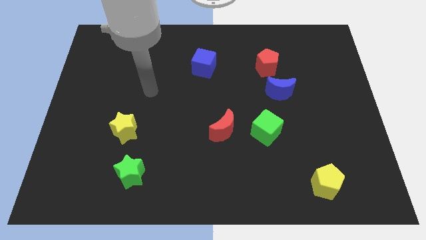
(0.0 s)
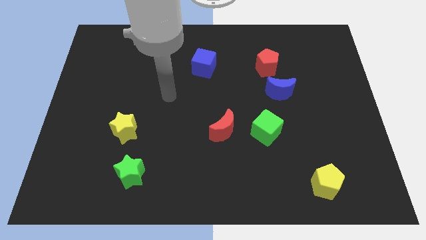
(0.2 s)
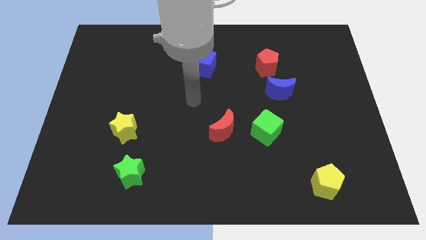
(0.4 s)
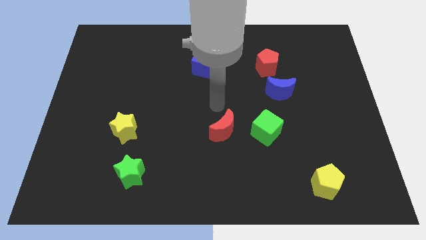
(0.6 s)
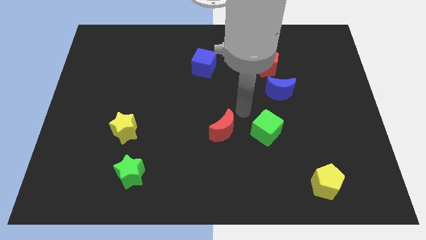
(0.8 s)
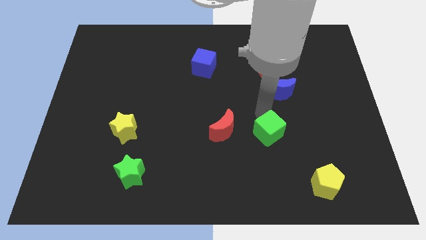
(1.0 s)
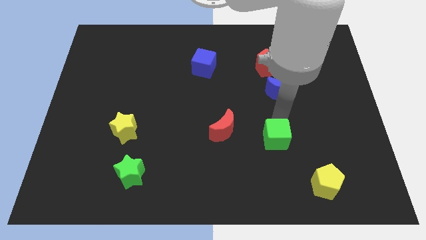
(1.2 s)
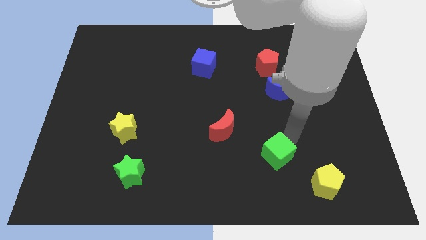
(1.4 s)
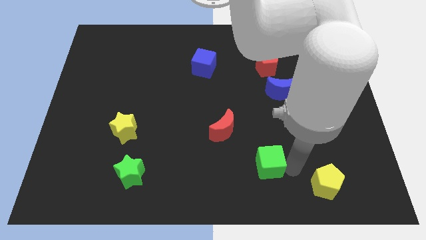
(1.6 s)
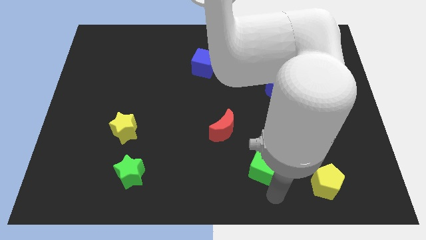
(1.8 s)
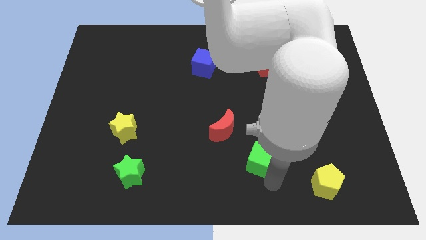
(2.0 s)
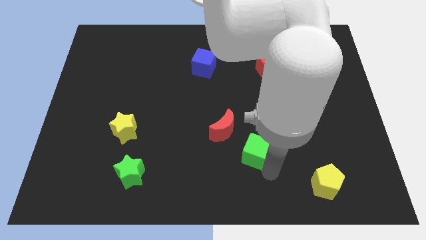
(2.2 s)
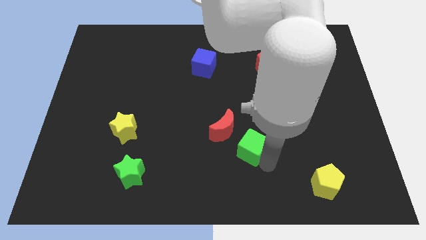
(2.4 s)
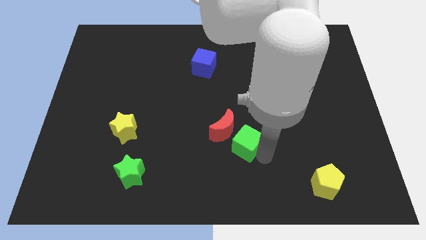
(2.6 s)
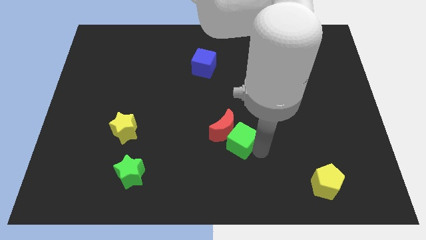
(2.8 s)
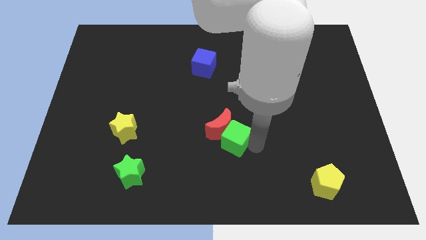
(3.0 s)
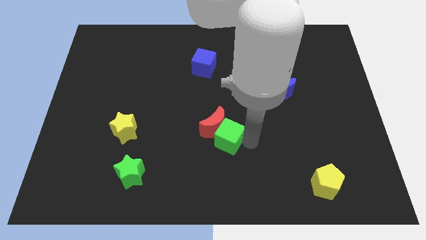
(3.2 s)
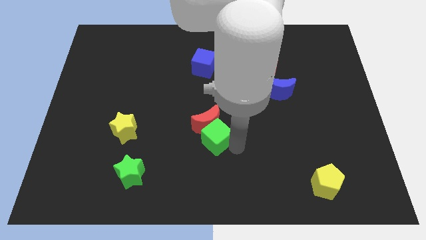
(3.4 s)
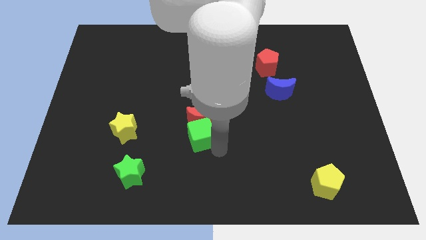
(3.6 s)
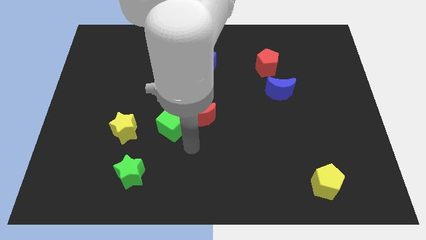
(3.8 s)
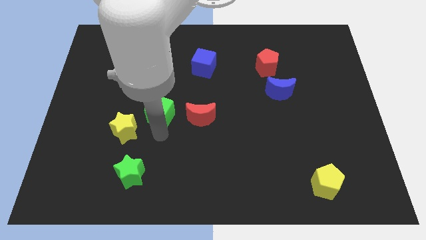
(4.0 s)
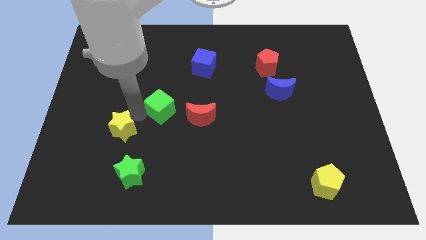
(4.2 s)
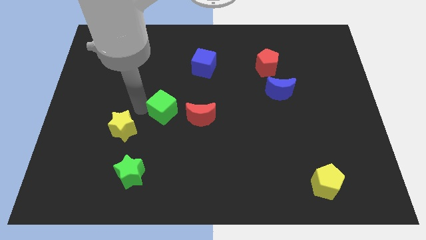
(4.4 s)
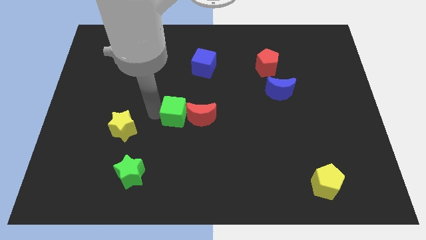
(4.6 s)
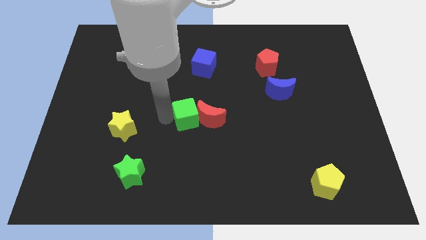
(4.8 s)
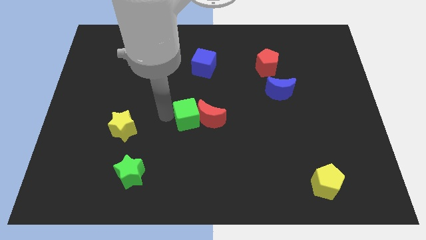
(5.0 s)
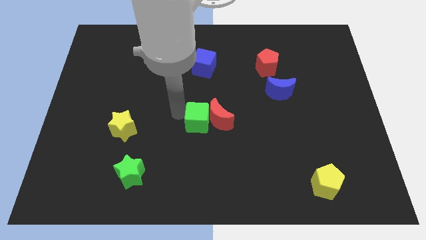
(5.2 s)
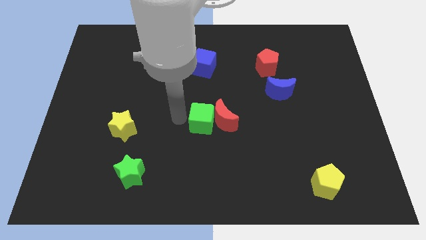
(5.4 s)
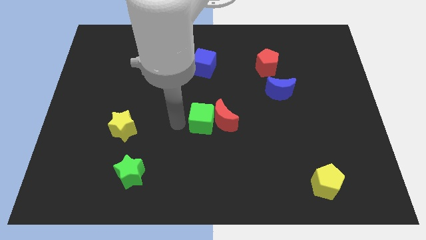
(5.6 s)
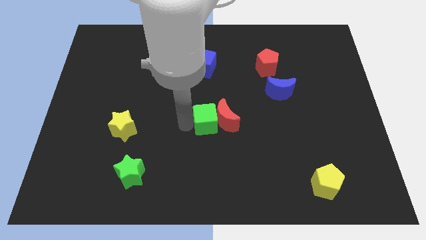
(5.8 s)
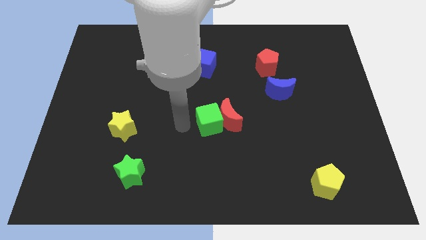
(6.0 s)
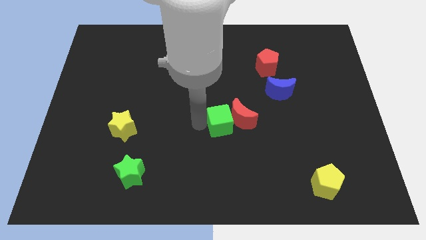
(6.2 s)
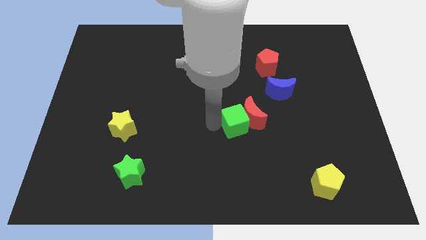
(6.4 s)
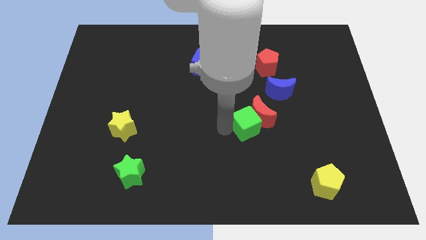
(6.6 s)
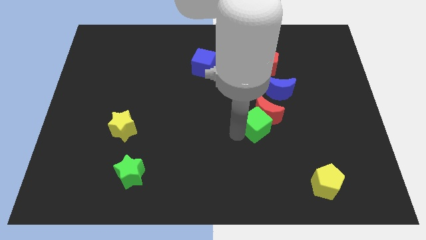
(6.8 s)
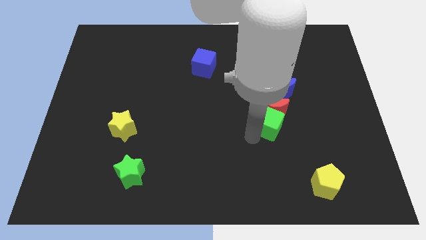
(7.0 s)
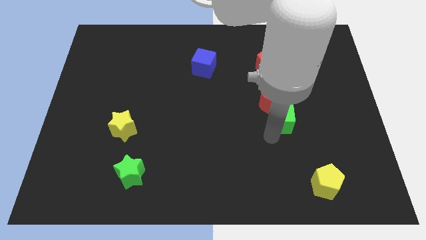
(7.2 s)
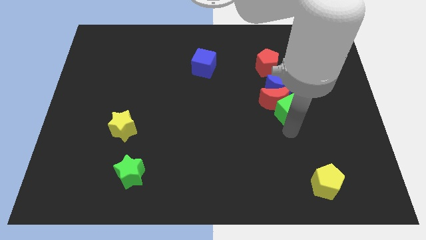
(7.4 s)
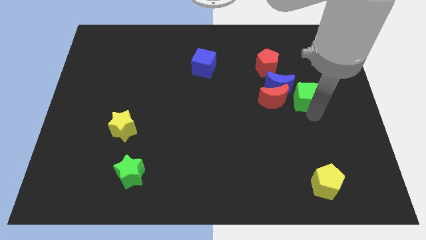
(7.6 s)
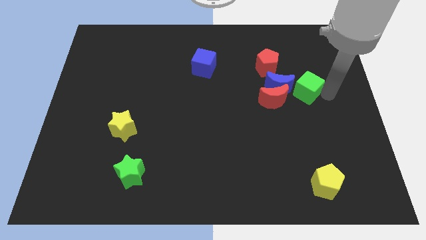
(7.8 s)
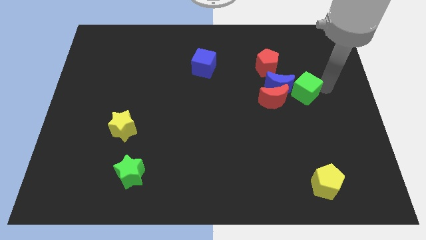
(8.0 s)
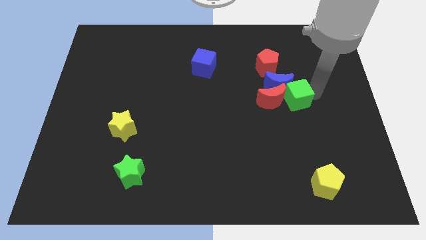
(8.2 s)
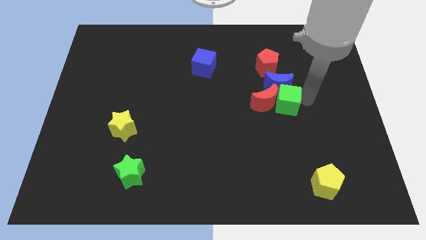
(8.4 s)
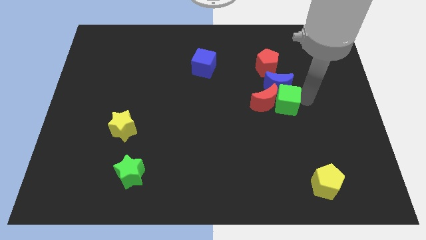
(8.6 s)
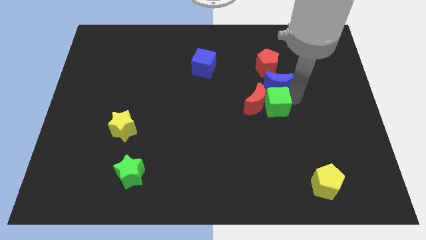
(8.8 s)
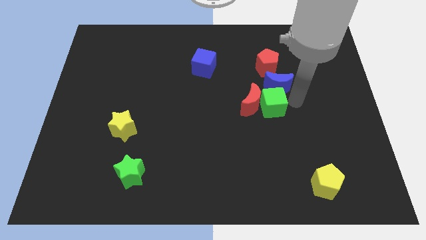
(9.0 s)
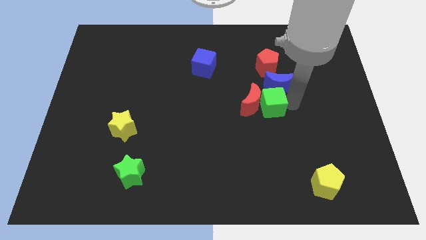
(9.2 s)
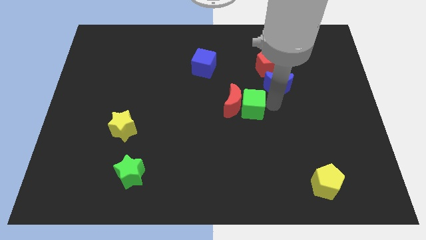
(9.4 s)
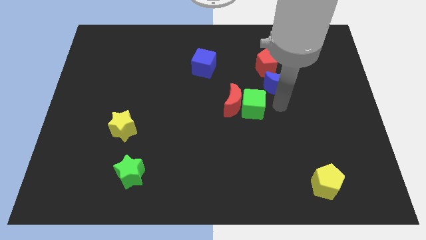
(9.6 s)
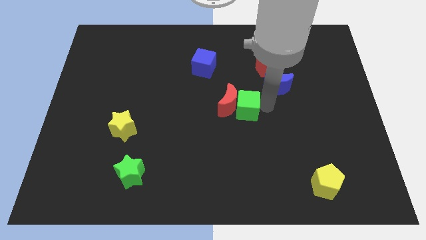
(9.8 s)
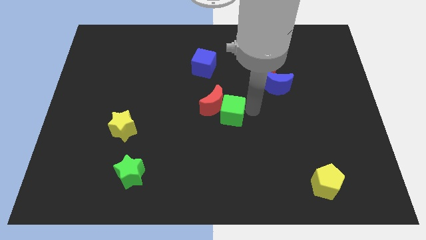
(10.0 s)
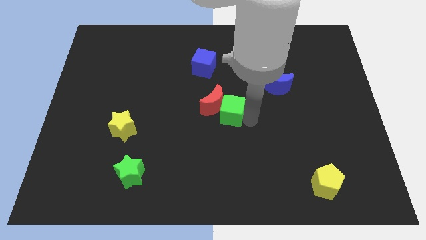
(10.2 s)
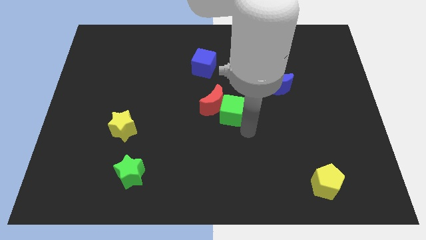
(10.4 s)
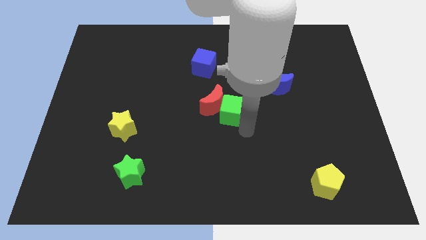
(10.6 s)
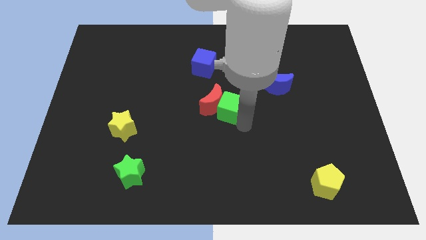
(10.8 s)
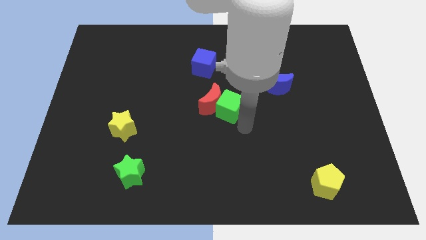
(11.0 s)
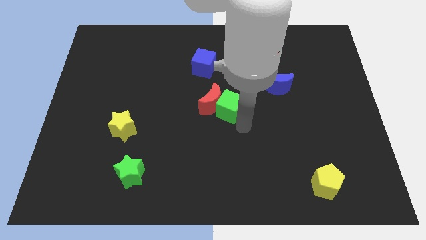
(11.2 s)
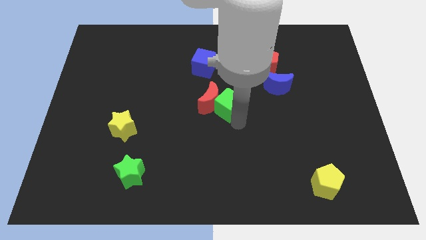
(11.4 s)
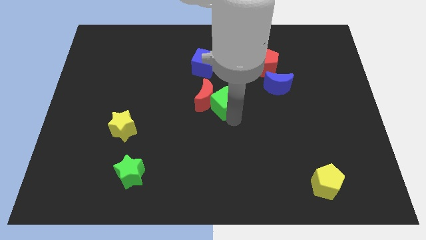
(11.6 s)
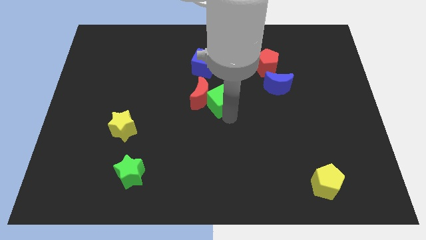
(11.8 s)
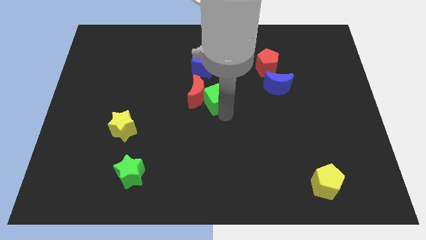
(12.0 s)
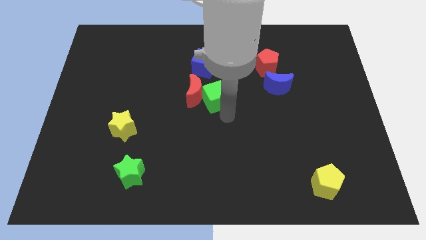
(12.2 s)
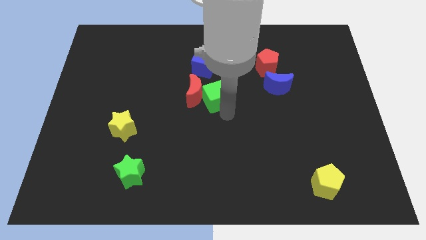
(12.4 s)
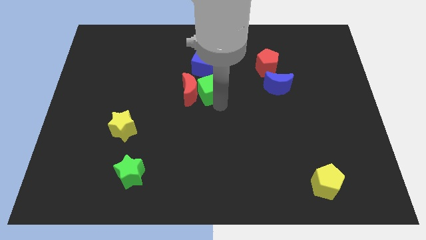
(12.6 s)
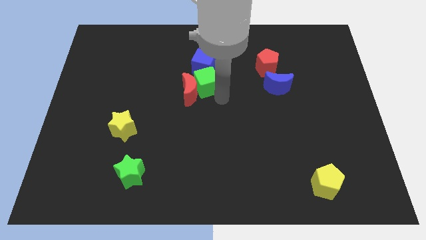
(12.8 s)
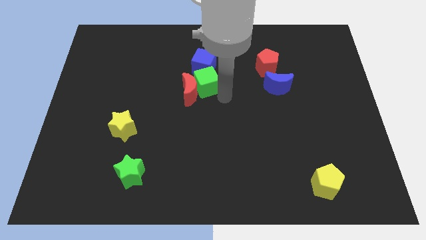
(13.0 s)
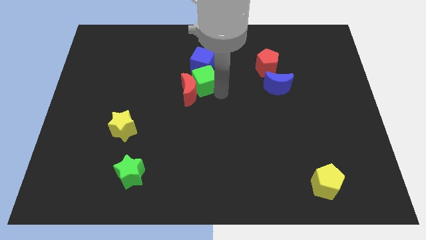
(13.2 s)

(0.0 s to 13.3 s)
push the green cube up and then to the left

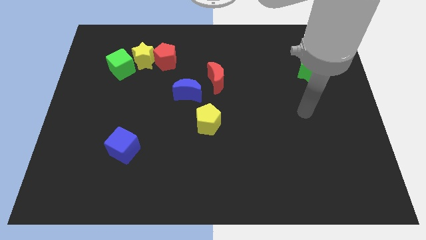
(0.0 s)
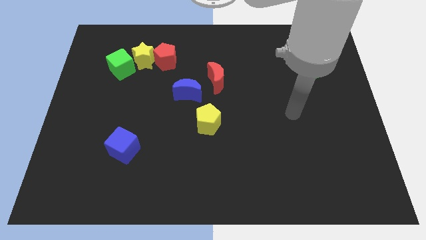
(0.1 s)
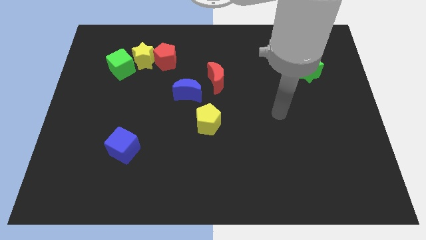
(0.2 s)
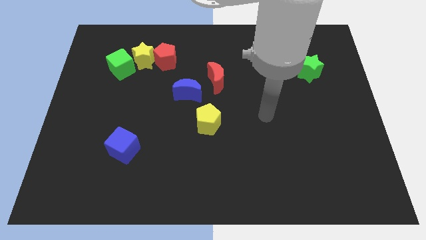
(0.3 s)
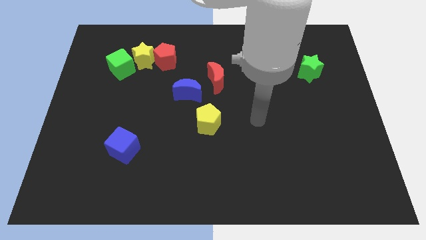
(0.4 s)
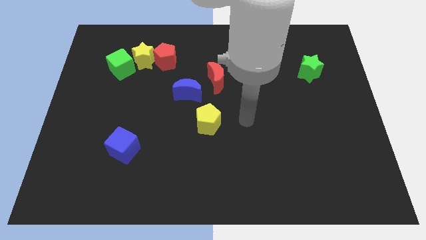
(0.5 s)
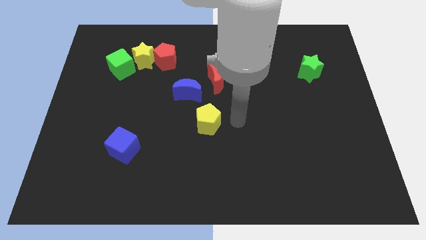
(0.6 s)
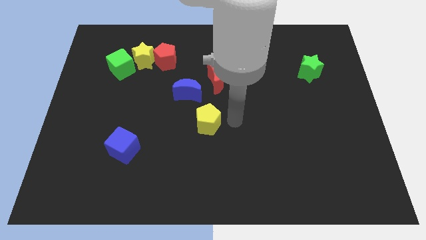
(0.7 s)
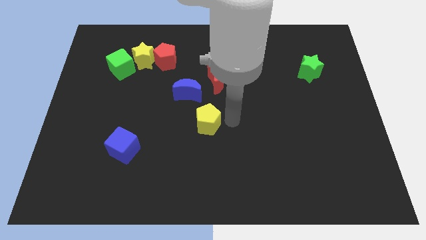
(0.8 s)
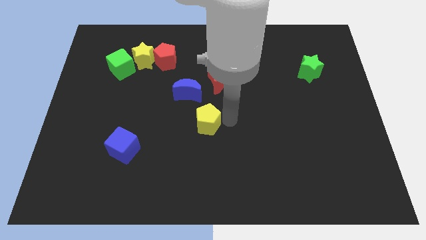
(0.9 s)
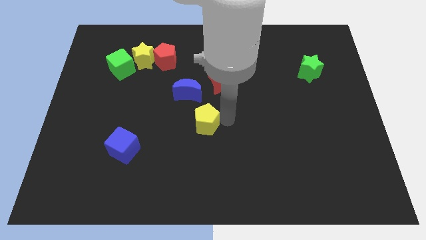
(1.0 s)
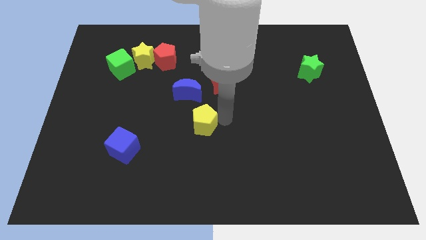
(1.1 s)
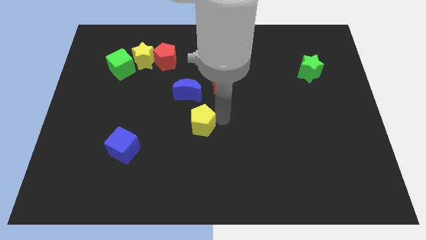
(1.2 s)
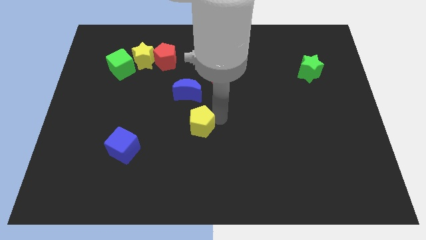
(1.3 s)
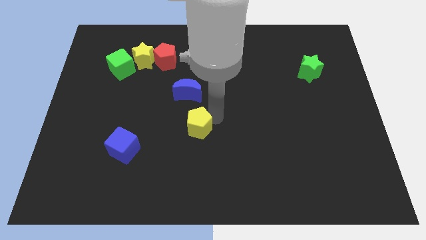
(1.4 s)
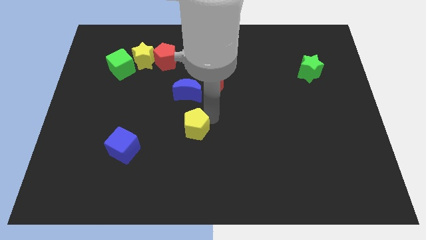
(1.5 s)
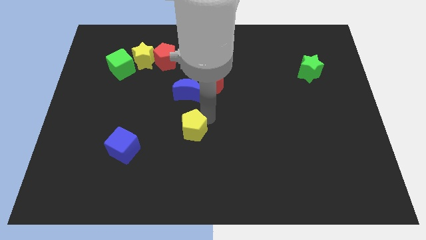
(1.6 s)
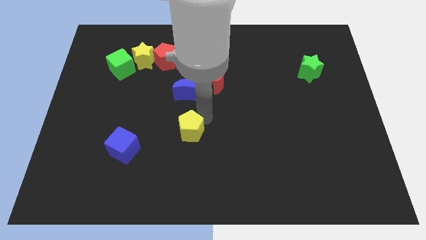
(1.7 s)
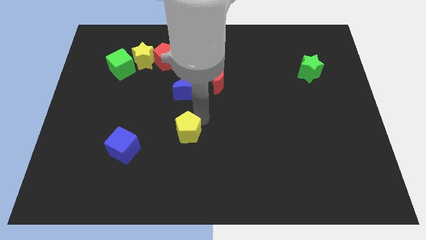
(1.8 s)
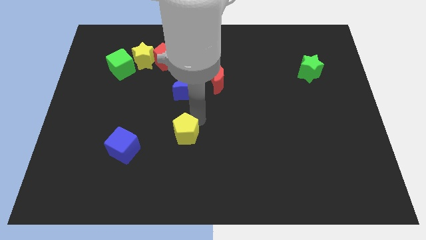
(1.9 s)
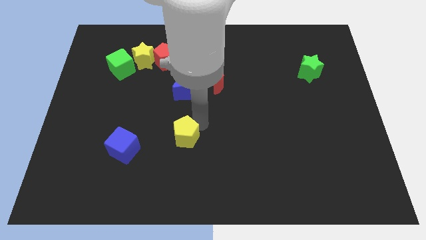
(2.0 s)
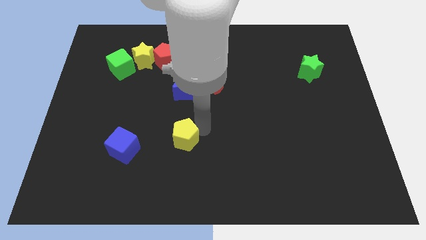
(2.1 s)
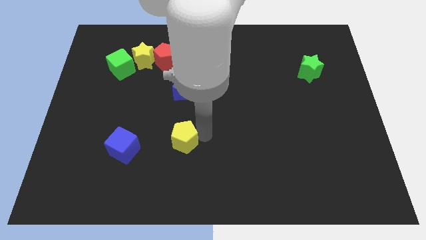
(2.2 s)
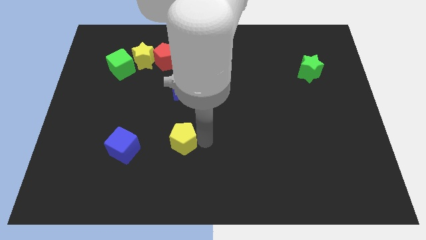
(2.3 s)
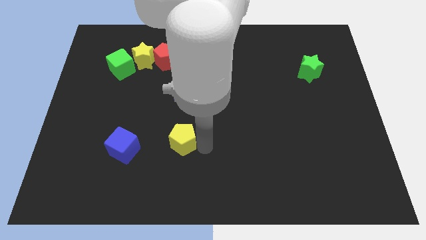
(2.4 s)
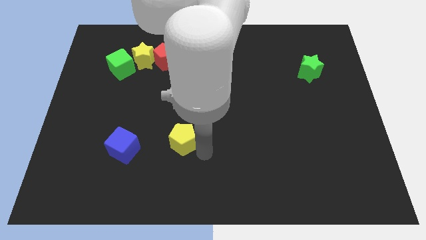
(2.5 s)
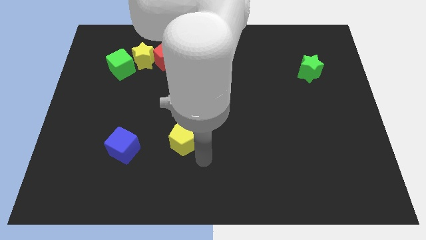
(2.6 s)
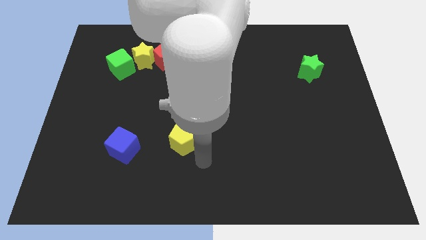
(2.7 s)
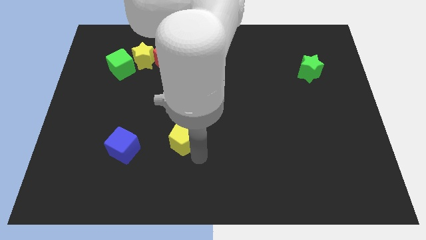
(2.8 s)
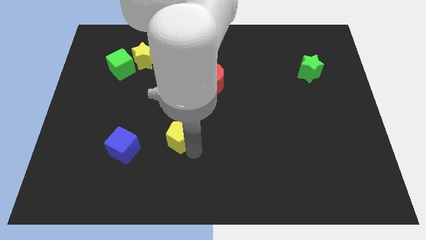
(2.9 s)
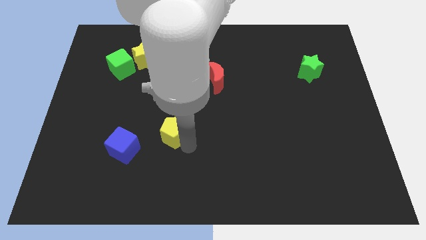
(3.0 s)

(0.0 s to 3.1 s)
push the yellow pentagon to the left somewhat
